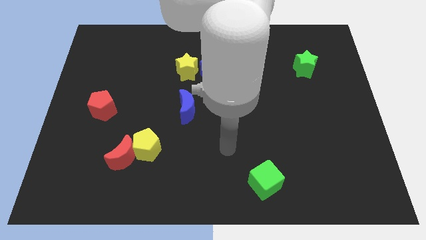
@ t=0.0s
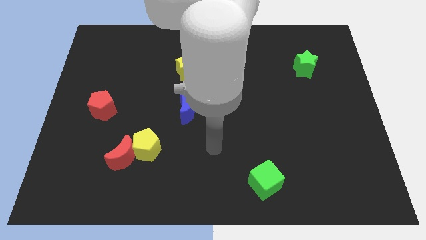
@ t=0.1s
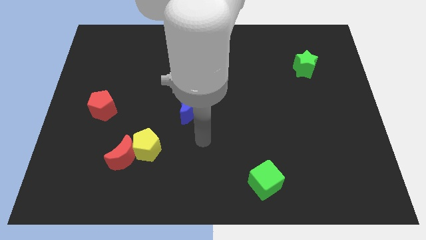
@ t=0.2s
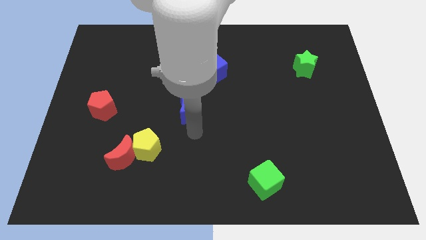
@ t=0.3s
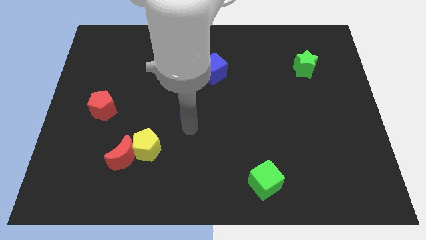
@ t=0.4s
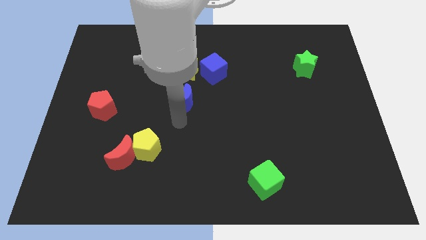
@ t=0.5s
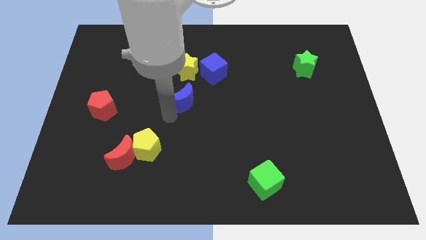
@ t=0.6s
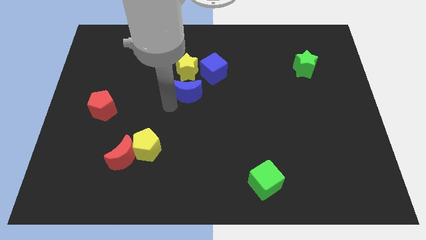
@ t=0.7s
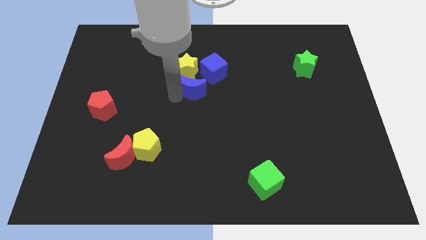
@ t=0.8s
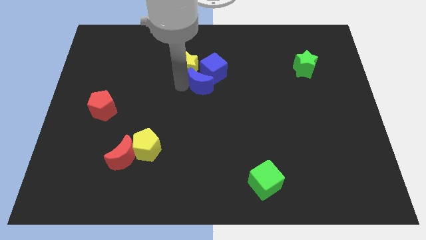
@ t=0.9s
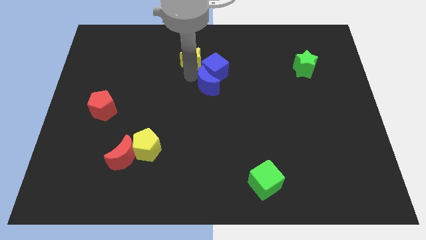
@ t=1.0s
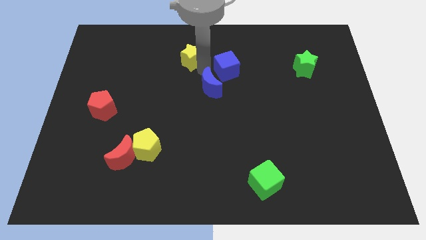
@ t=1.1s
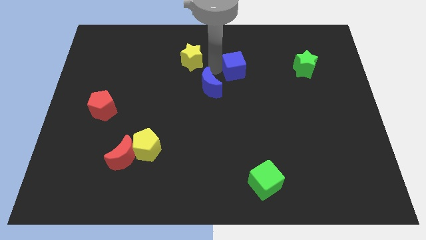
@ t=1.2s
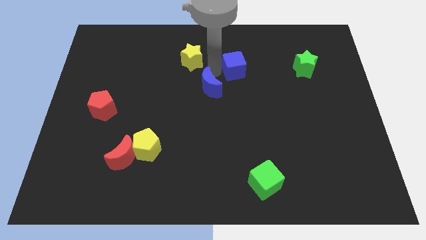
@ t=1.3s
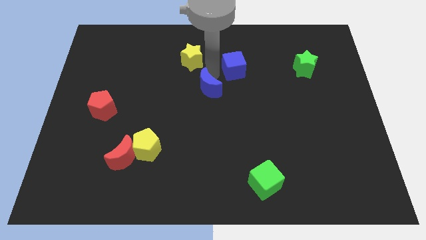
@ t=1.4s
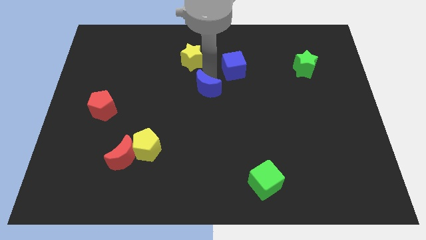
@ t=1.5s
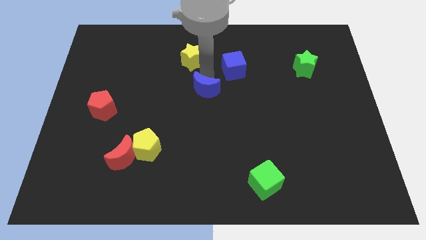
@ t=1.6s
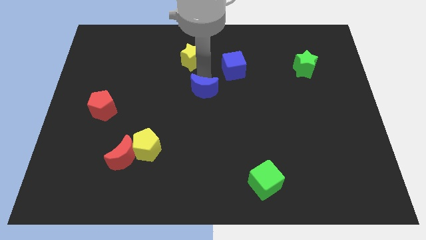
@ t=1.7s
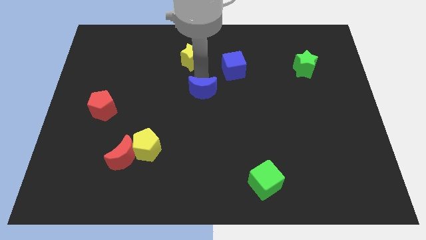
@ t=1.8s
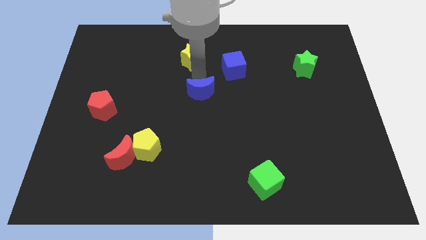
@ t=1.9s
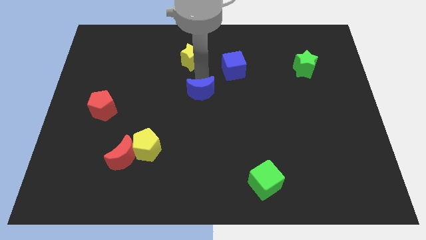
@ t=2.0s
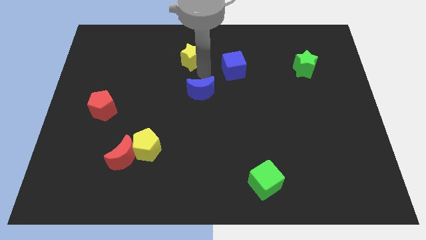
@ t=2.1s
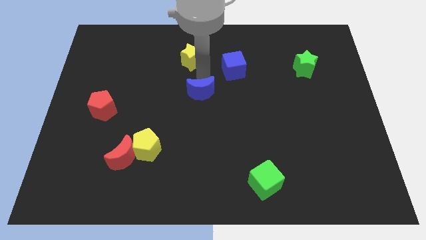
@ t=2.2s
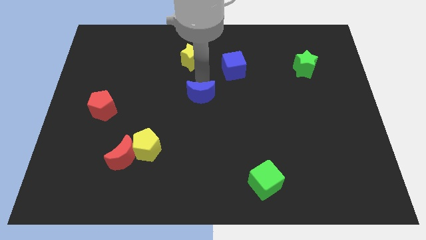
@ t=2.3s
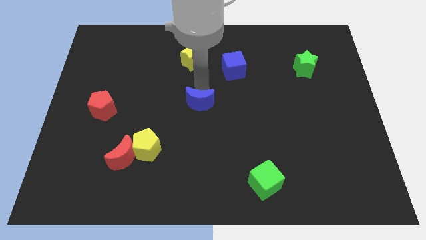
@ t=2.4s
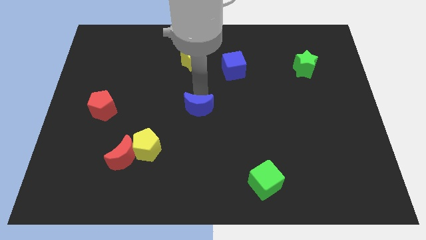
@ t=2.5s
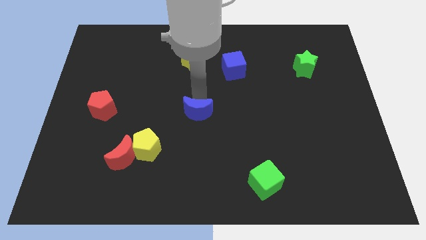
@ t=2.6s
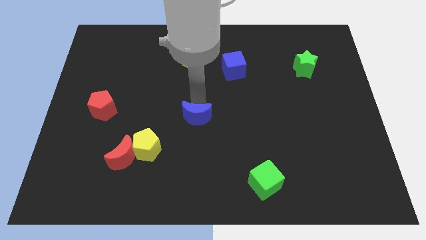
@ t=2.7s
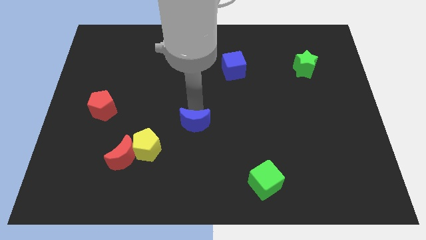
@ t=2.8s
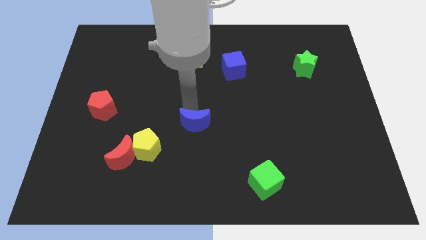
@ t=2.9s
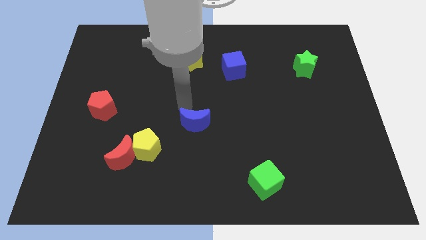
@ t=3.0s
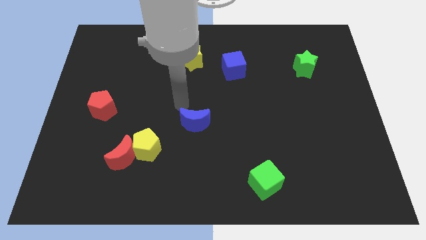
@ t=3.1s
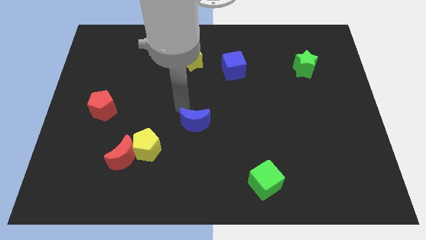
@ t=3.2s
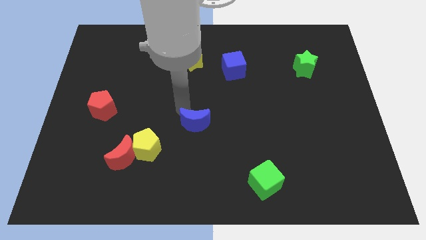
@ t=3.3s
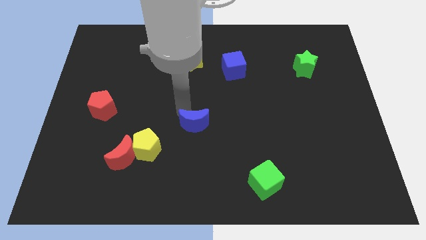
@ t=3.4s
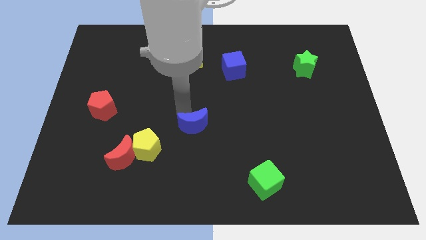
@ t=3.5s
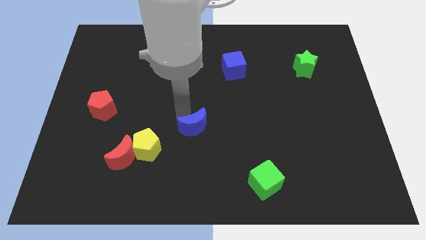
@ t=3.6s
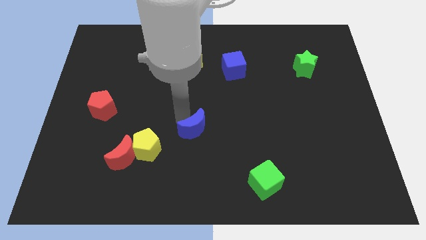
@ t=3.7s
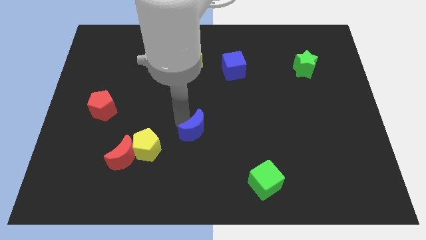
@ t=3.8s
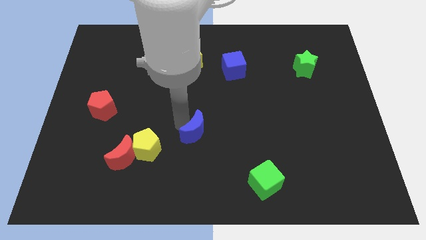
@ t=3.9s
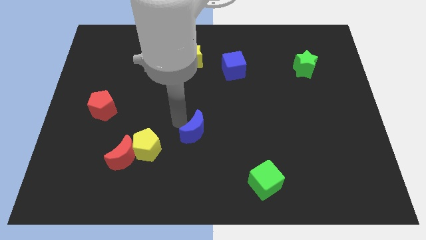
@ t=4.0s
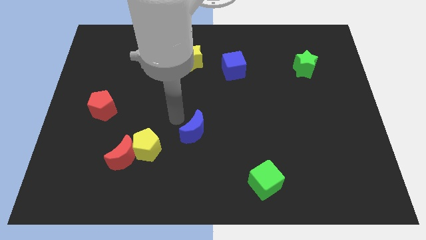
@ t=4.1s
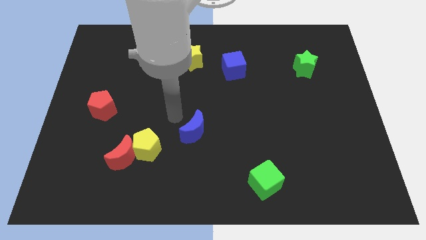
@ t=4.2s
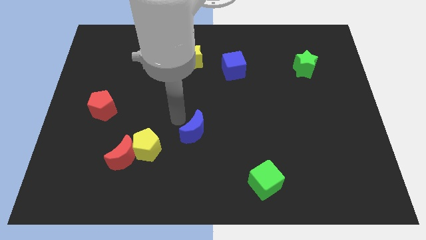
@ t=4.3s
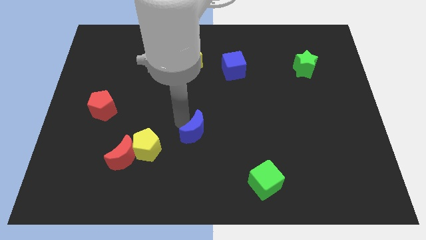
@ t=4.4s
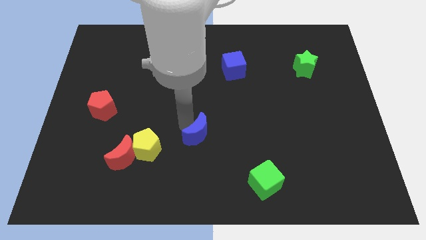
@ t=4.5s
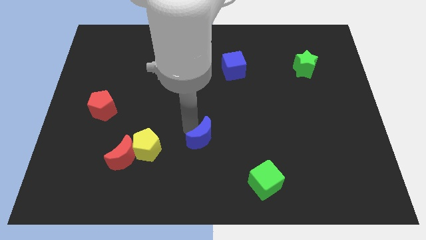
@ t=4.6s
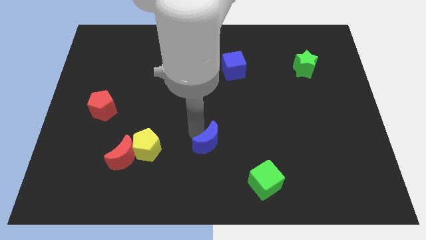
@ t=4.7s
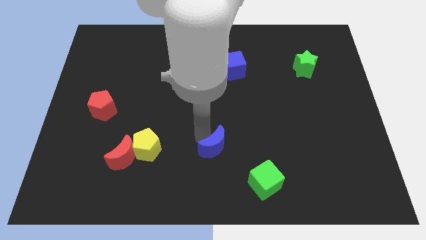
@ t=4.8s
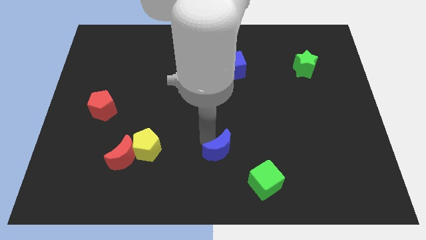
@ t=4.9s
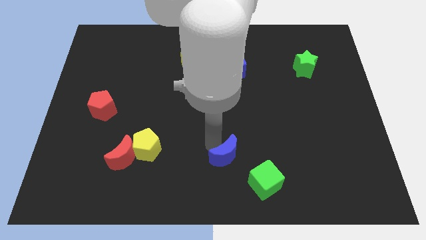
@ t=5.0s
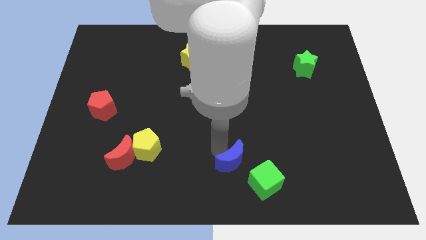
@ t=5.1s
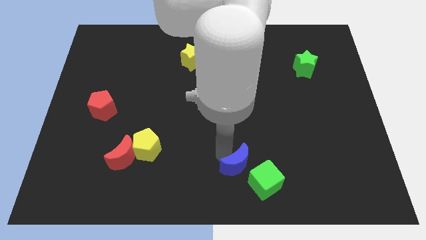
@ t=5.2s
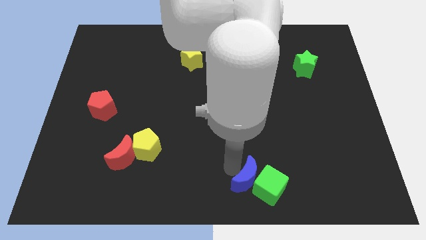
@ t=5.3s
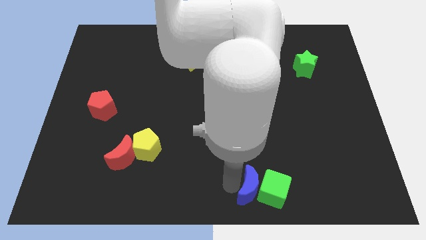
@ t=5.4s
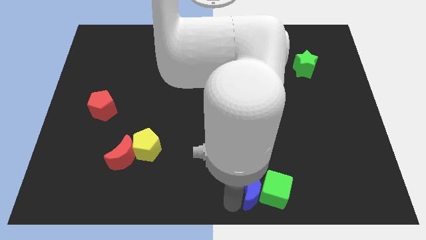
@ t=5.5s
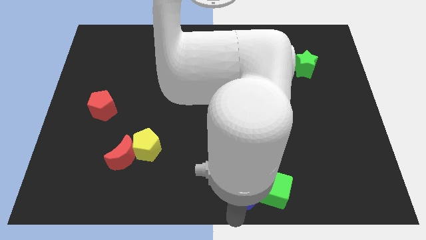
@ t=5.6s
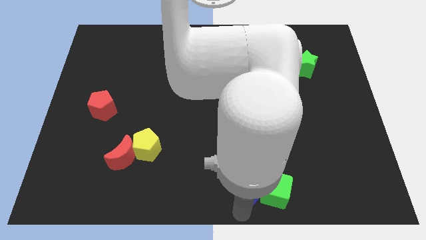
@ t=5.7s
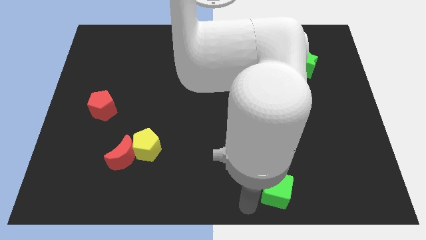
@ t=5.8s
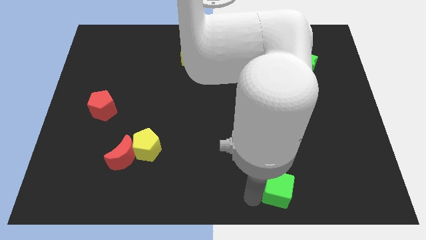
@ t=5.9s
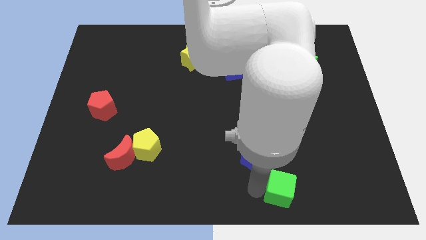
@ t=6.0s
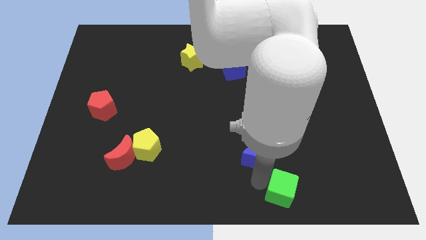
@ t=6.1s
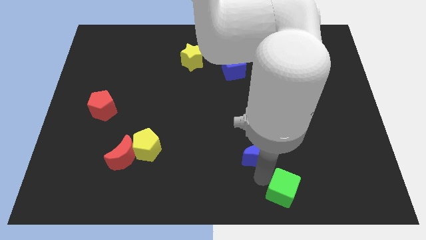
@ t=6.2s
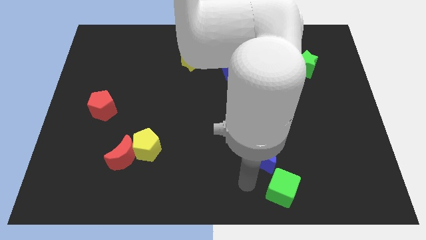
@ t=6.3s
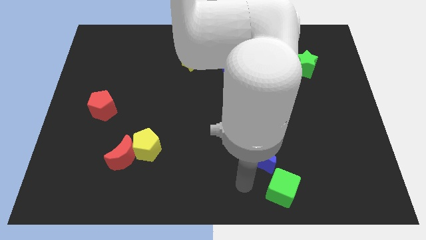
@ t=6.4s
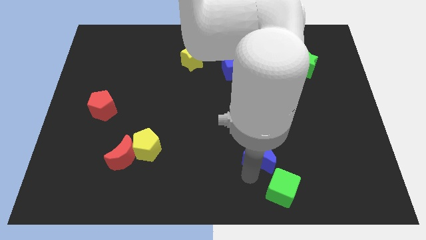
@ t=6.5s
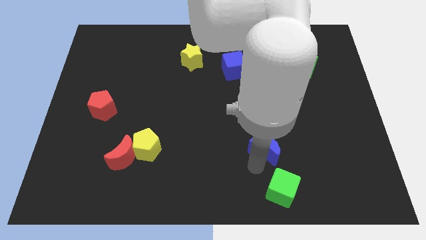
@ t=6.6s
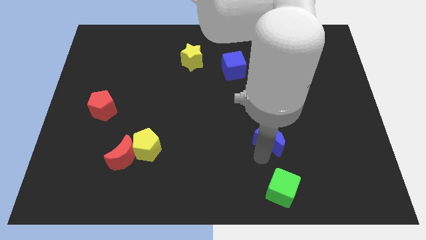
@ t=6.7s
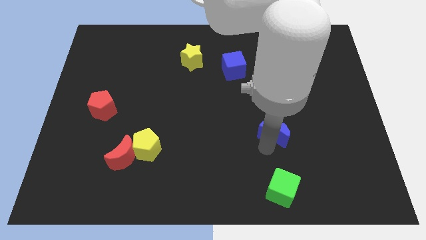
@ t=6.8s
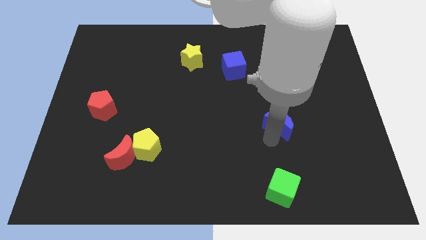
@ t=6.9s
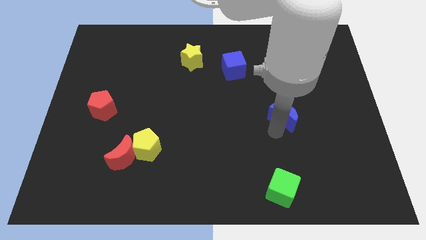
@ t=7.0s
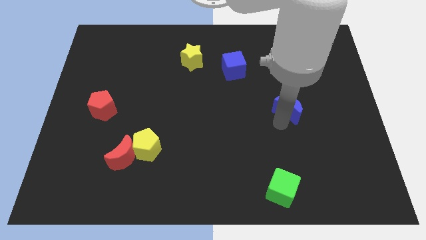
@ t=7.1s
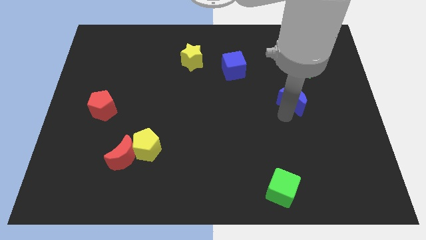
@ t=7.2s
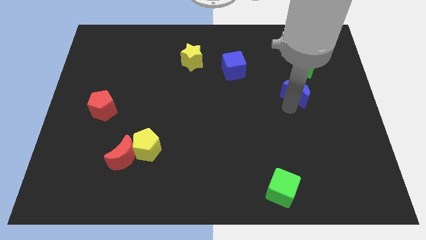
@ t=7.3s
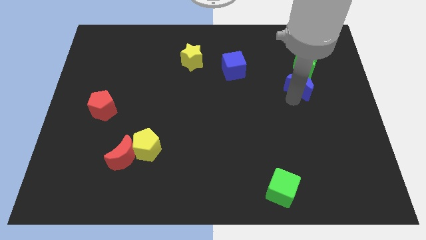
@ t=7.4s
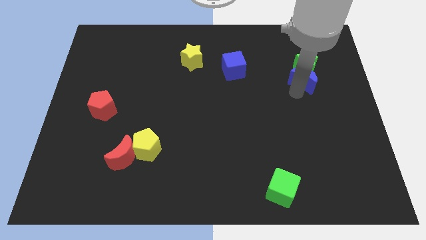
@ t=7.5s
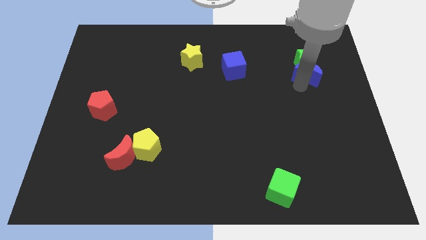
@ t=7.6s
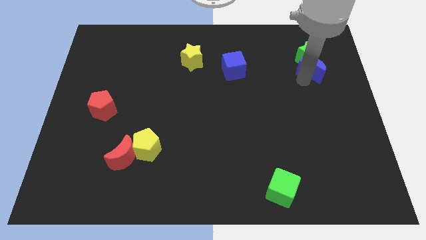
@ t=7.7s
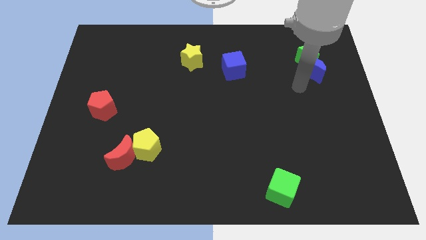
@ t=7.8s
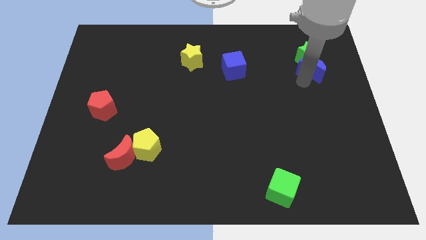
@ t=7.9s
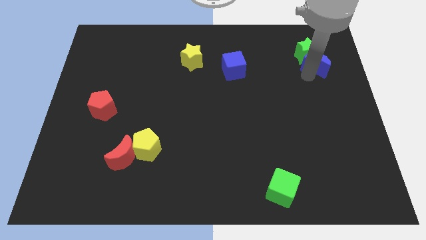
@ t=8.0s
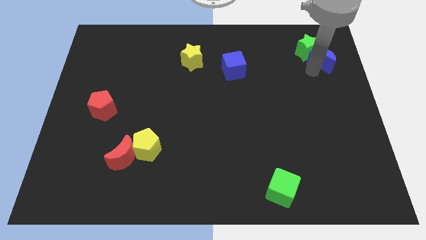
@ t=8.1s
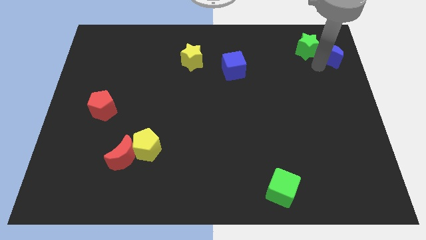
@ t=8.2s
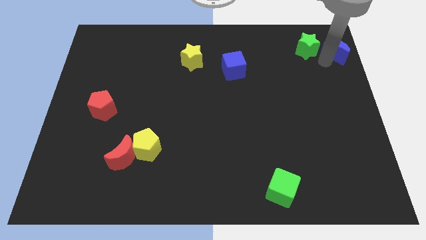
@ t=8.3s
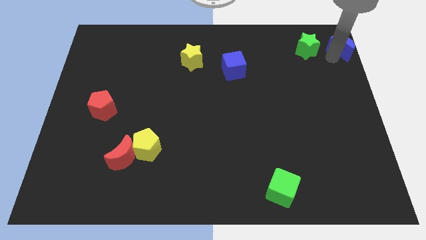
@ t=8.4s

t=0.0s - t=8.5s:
put the blue moon to the top right corner
